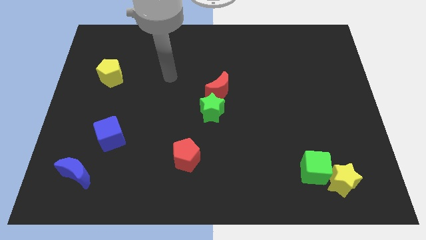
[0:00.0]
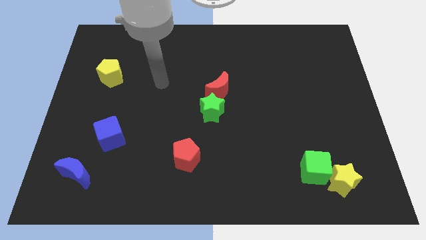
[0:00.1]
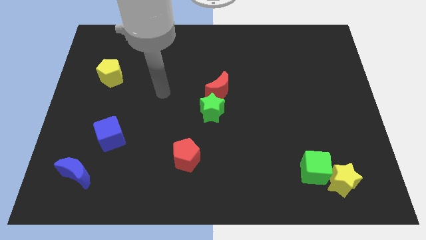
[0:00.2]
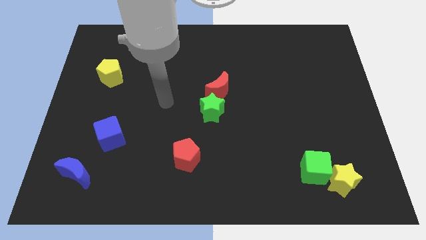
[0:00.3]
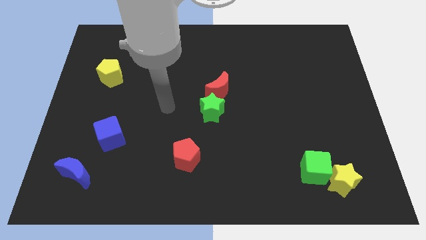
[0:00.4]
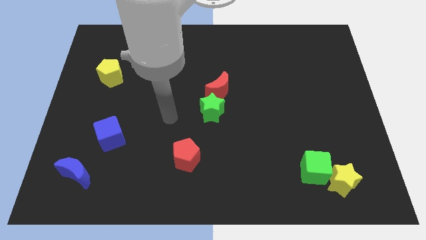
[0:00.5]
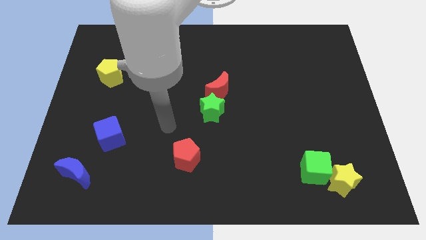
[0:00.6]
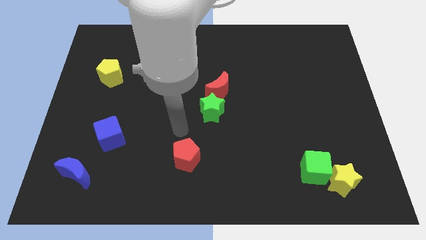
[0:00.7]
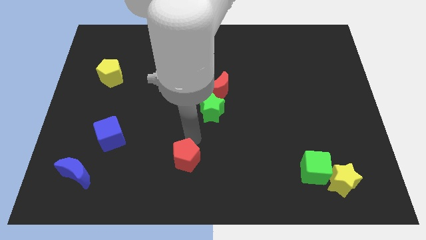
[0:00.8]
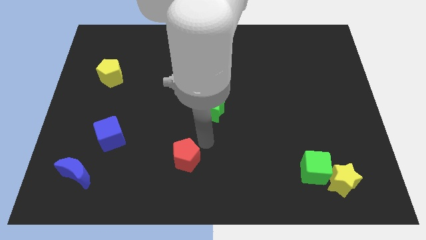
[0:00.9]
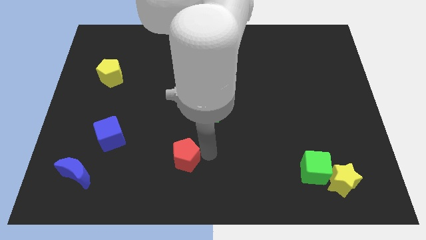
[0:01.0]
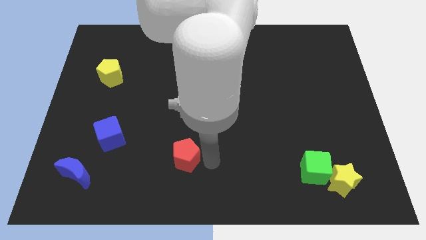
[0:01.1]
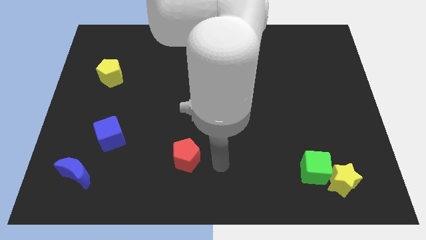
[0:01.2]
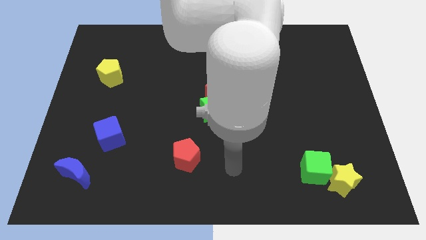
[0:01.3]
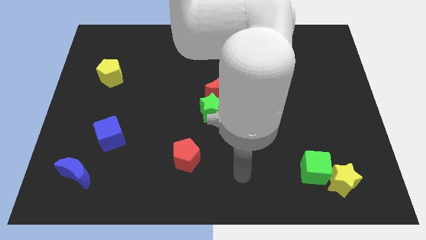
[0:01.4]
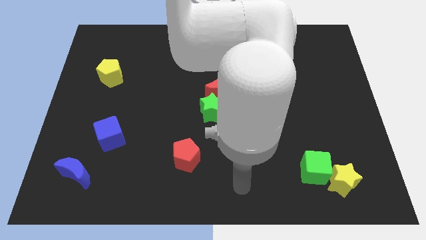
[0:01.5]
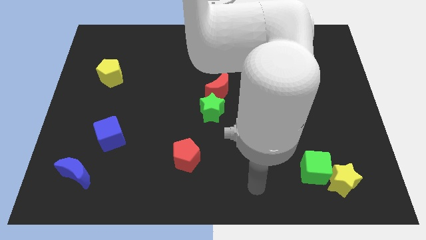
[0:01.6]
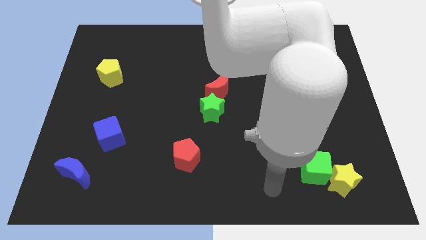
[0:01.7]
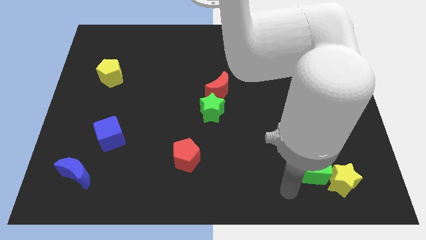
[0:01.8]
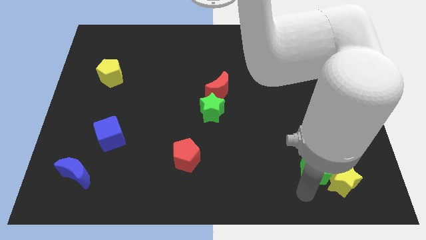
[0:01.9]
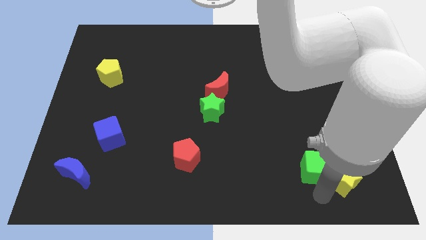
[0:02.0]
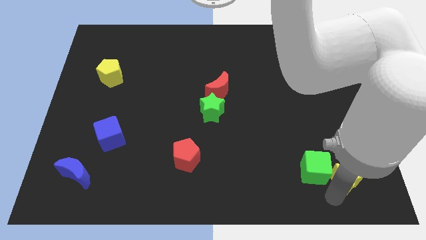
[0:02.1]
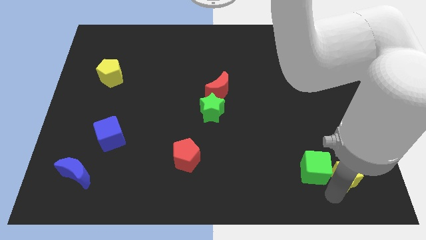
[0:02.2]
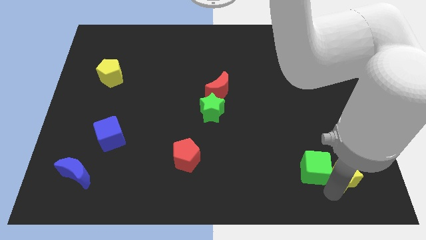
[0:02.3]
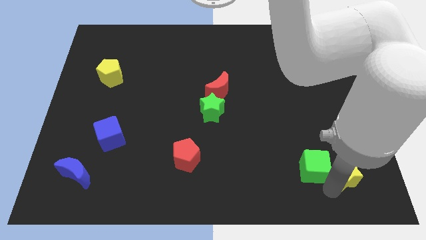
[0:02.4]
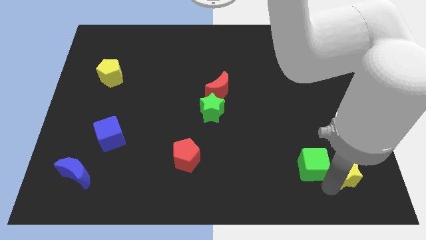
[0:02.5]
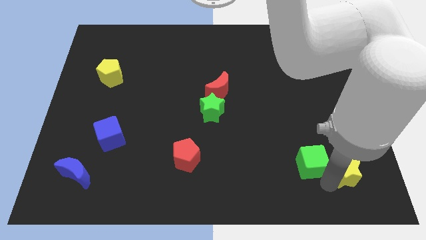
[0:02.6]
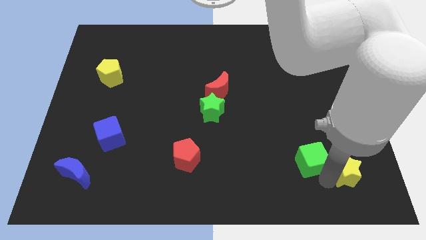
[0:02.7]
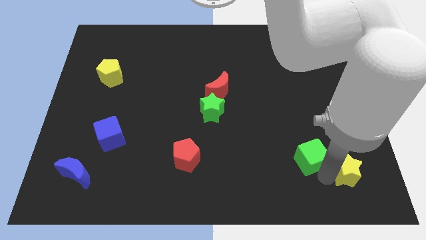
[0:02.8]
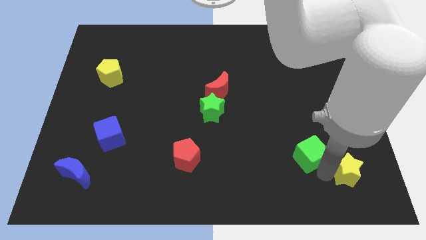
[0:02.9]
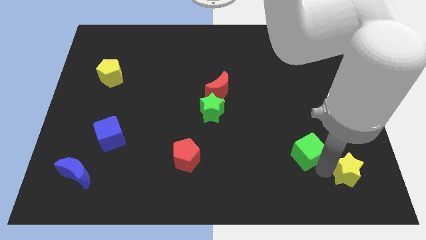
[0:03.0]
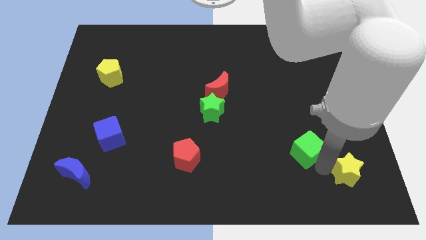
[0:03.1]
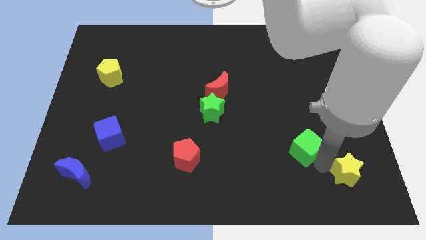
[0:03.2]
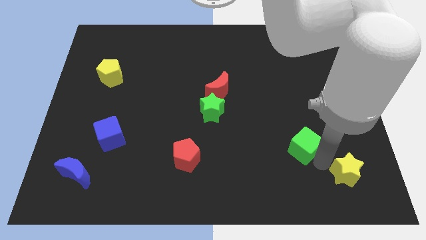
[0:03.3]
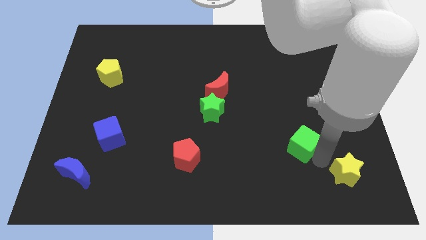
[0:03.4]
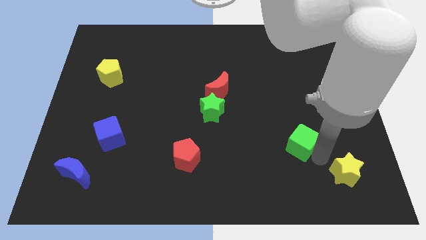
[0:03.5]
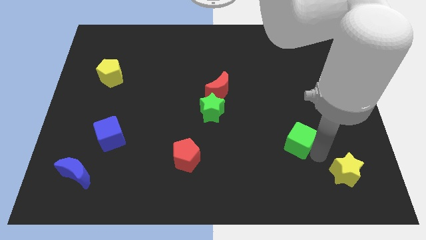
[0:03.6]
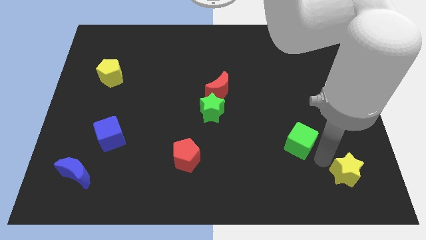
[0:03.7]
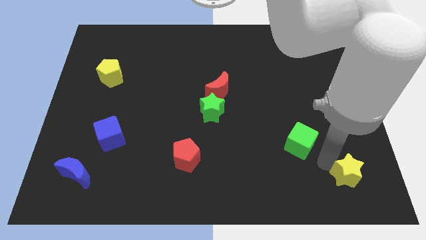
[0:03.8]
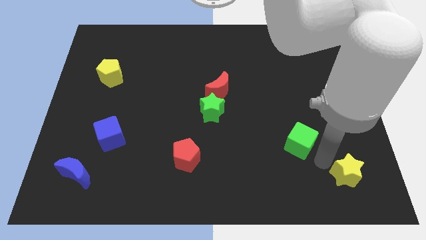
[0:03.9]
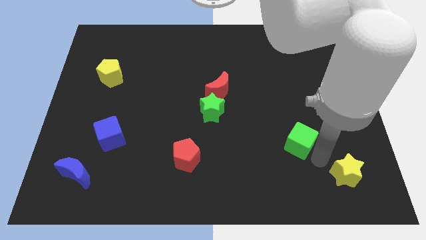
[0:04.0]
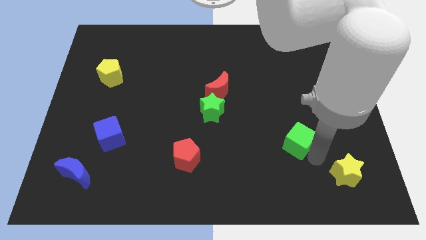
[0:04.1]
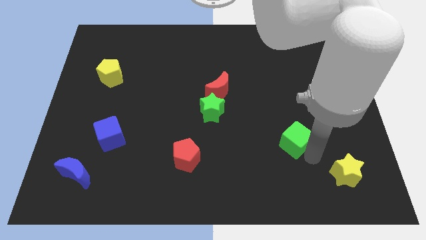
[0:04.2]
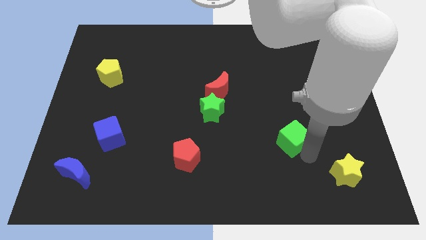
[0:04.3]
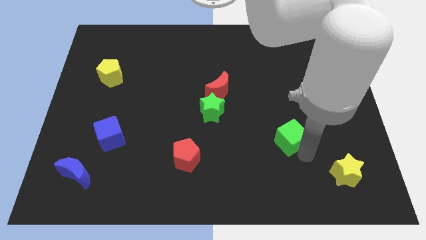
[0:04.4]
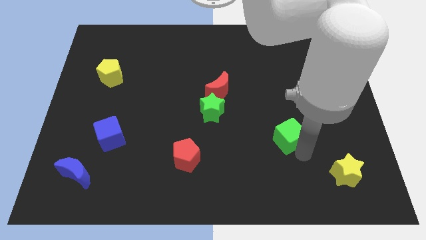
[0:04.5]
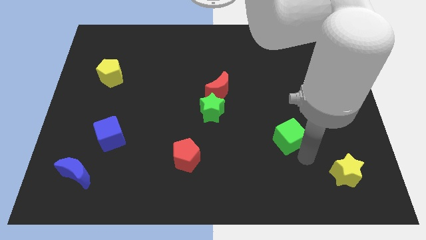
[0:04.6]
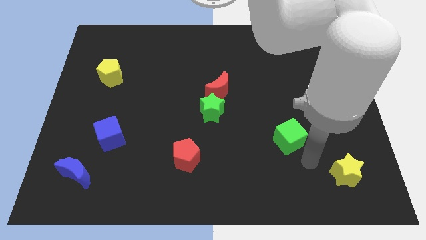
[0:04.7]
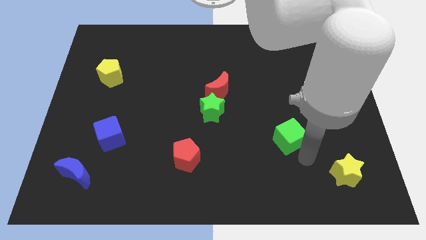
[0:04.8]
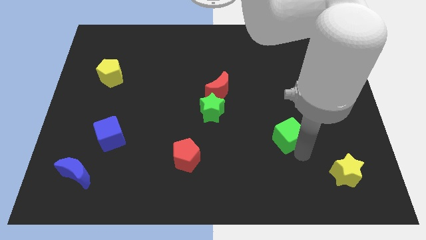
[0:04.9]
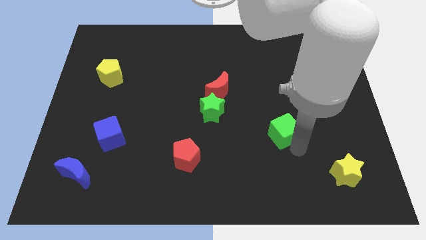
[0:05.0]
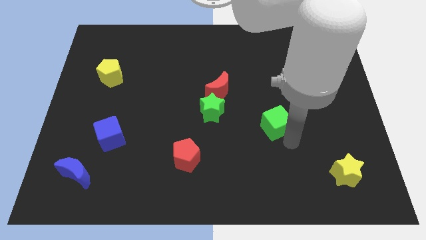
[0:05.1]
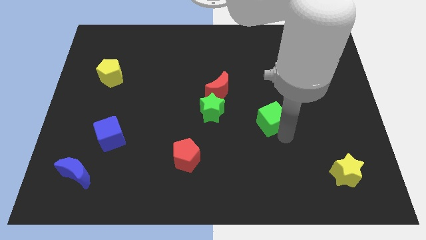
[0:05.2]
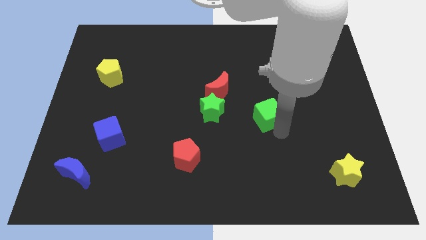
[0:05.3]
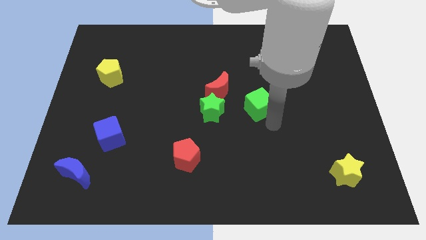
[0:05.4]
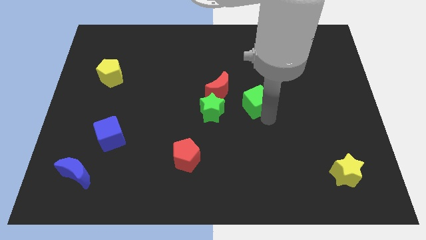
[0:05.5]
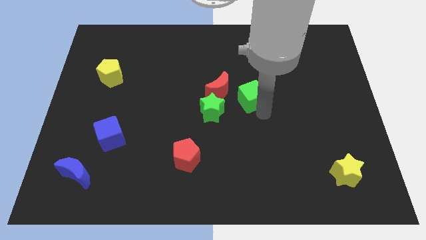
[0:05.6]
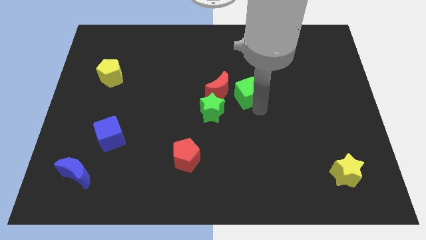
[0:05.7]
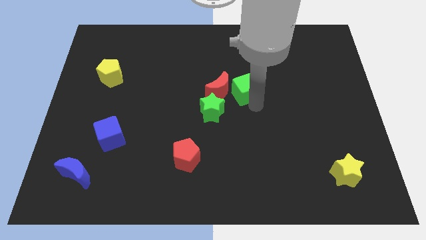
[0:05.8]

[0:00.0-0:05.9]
move the green cube to the top right side of the red moon

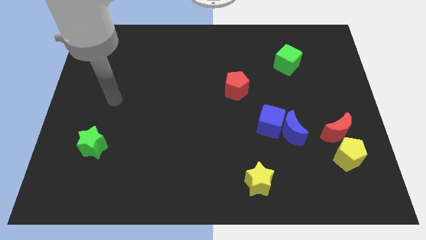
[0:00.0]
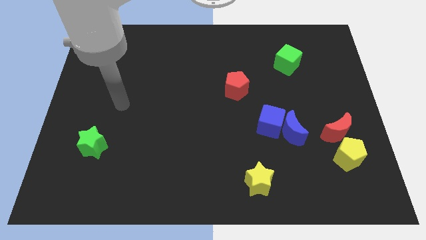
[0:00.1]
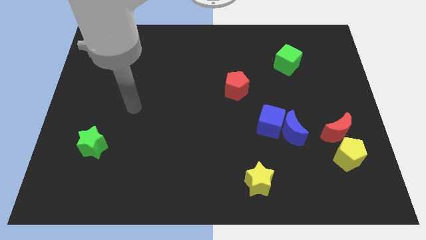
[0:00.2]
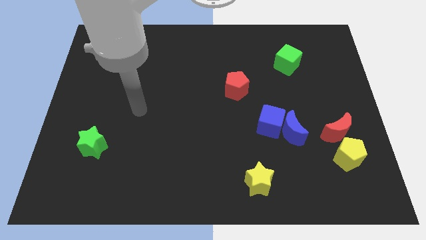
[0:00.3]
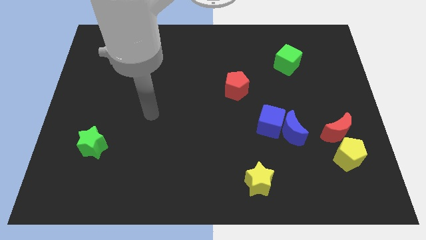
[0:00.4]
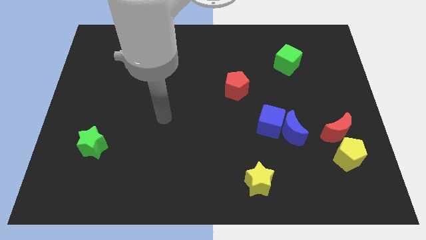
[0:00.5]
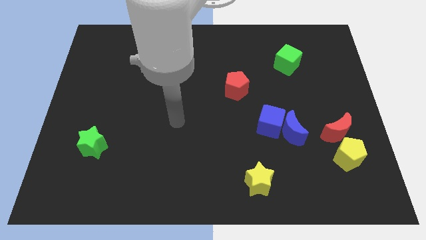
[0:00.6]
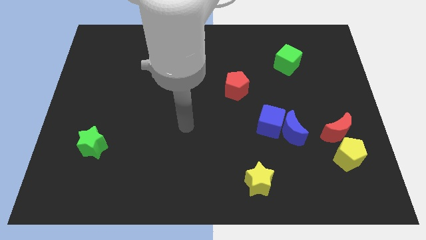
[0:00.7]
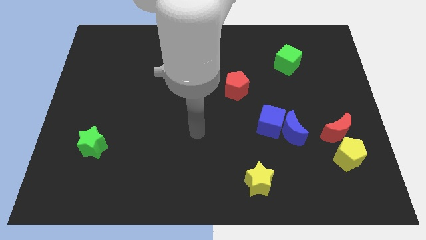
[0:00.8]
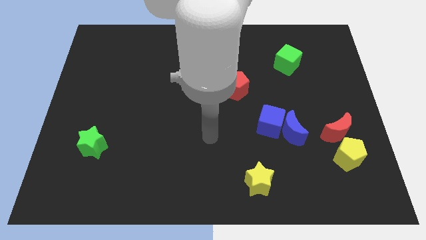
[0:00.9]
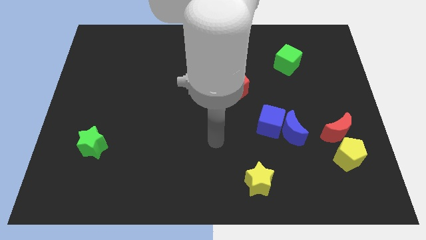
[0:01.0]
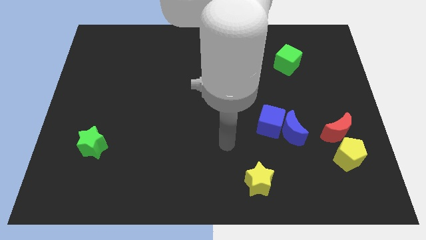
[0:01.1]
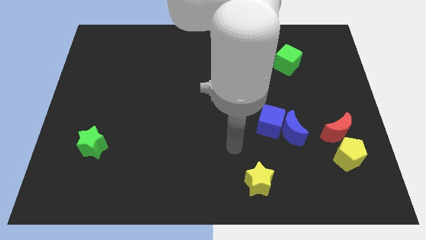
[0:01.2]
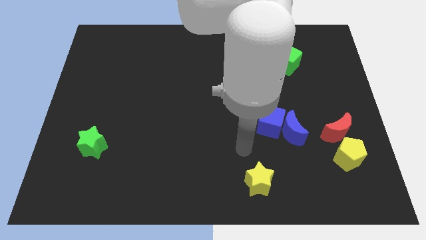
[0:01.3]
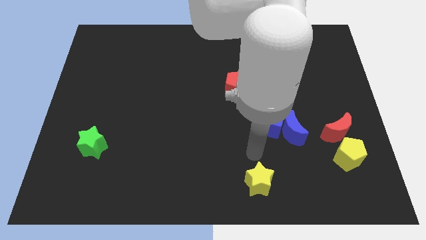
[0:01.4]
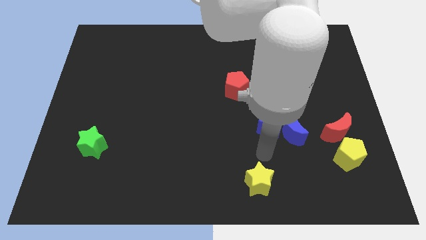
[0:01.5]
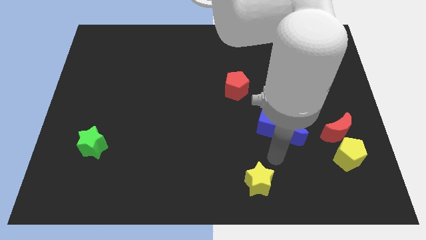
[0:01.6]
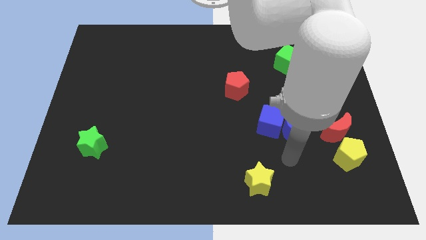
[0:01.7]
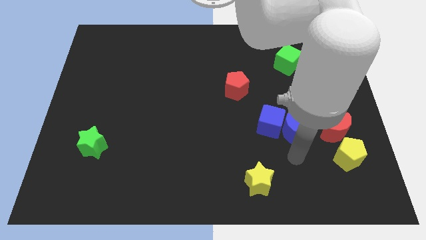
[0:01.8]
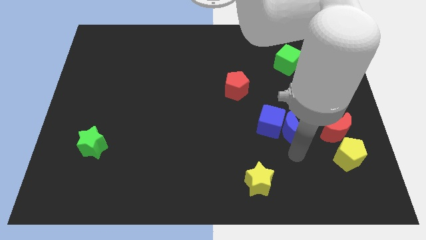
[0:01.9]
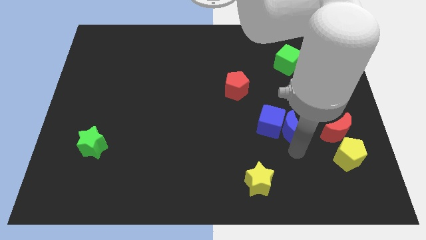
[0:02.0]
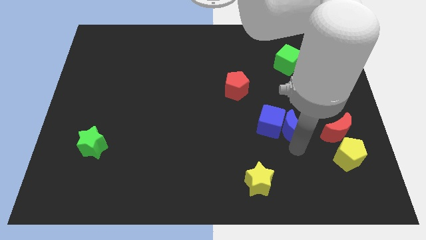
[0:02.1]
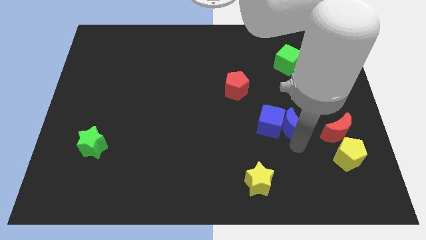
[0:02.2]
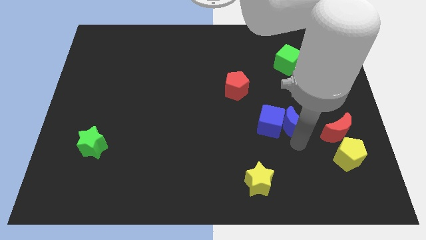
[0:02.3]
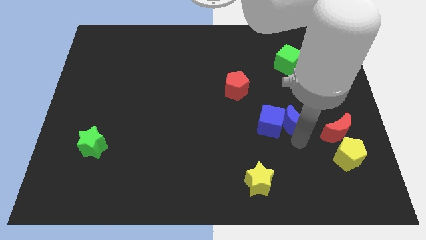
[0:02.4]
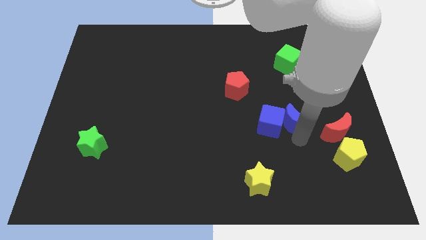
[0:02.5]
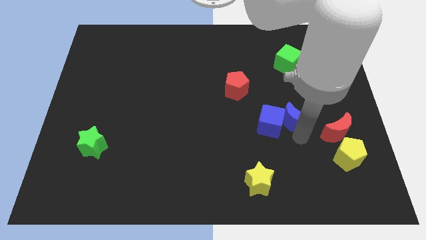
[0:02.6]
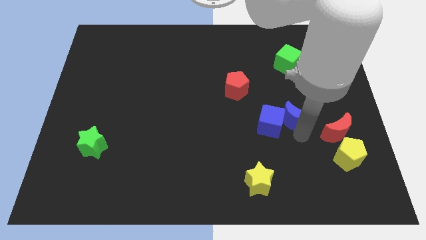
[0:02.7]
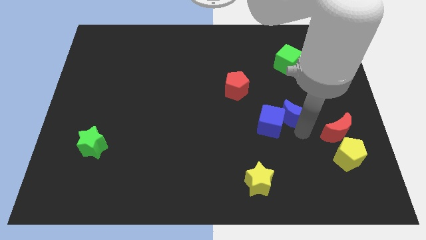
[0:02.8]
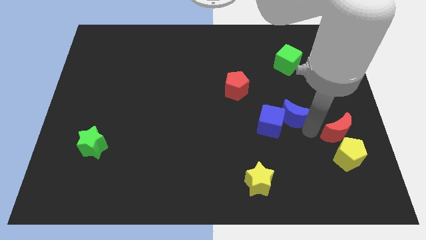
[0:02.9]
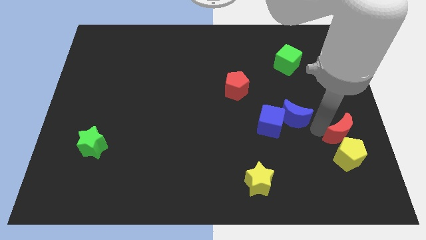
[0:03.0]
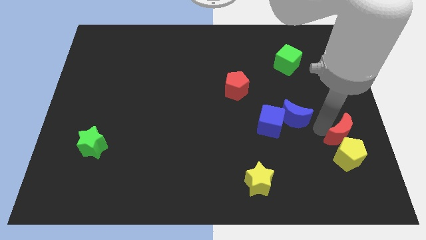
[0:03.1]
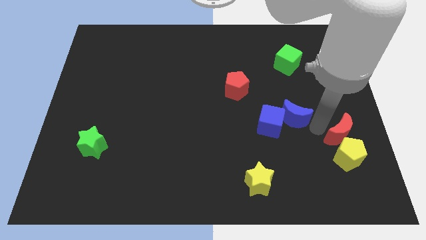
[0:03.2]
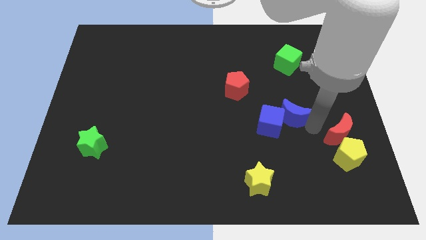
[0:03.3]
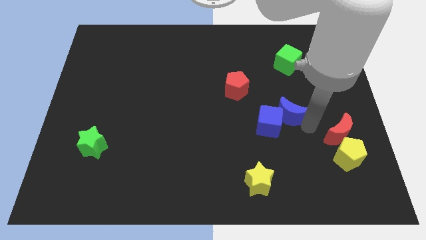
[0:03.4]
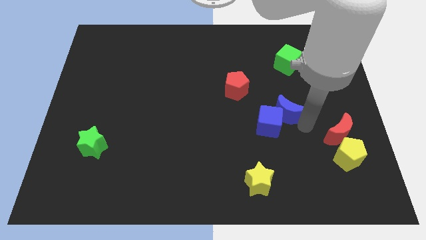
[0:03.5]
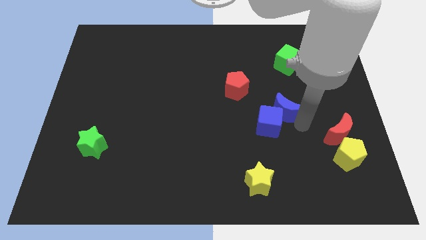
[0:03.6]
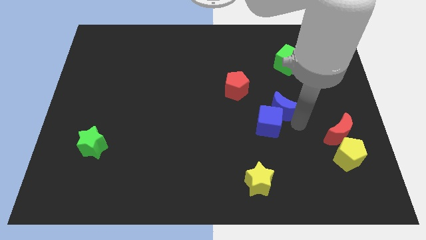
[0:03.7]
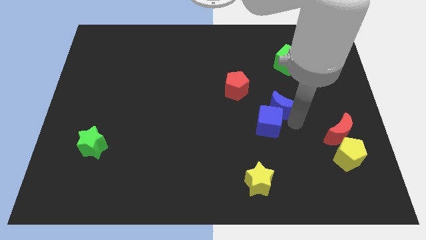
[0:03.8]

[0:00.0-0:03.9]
slide the blue moon to the bottom right of the red pentagon
